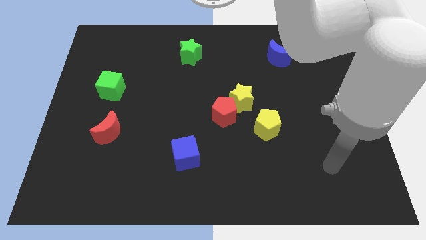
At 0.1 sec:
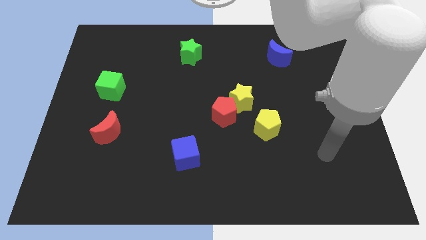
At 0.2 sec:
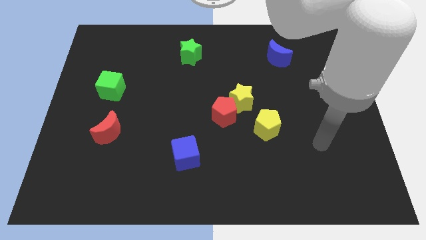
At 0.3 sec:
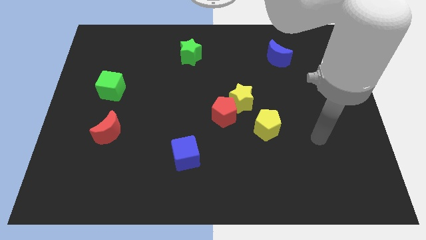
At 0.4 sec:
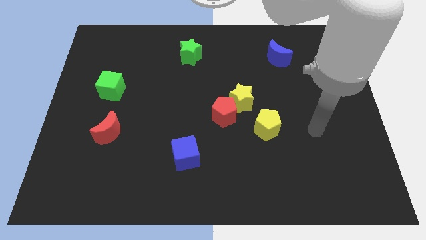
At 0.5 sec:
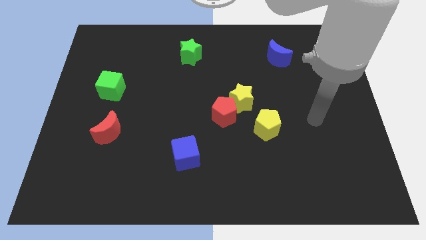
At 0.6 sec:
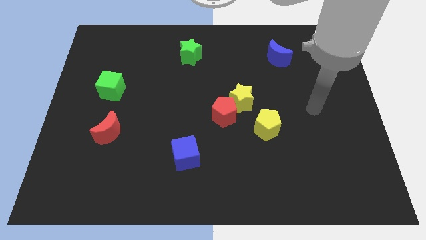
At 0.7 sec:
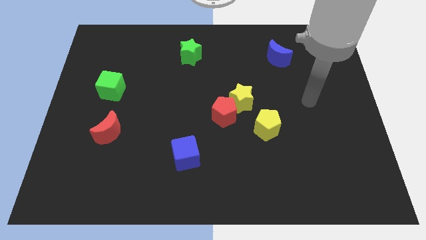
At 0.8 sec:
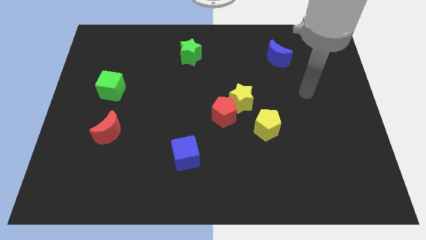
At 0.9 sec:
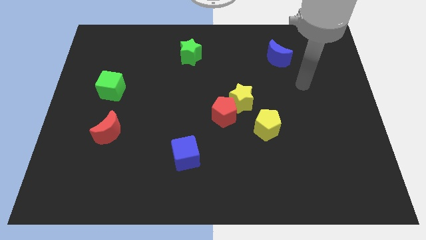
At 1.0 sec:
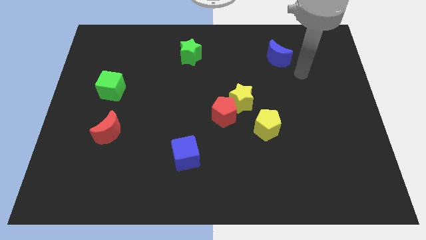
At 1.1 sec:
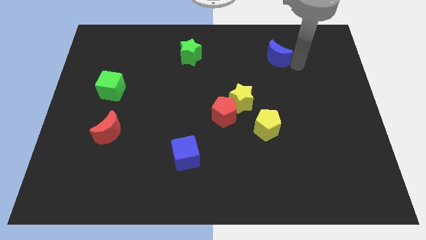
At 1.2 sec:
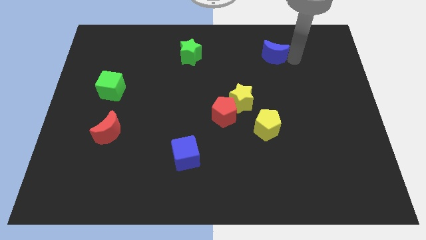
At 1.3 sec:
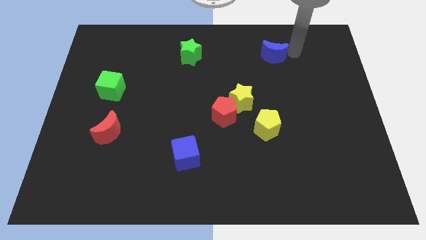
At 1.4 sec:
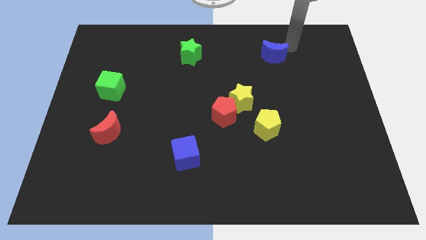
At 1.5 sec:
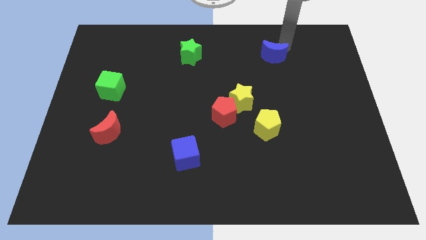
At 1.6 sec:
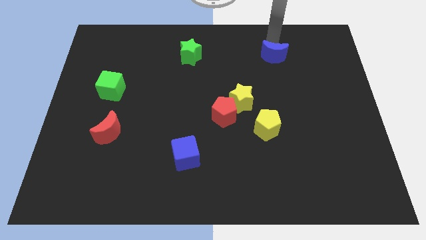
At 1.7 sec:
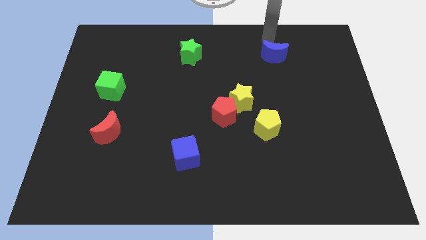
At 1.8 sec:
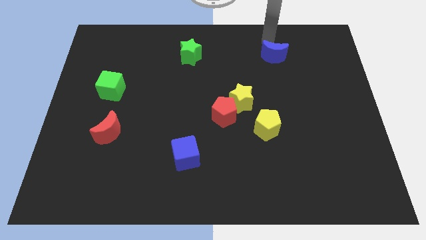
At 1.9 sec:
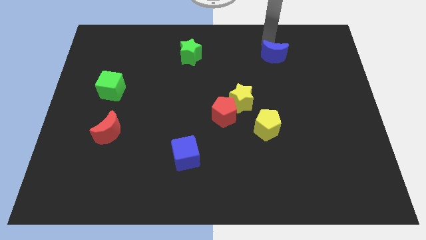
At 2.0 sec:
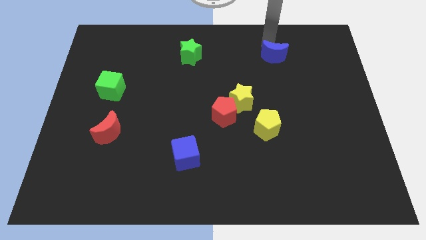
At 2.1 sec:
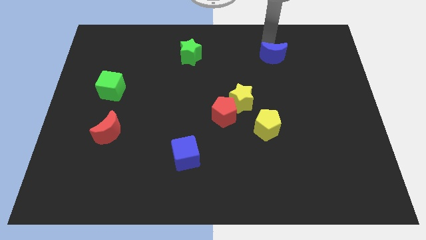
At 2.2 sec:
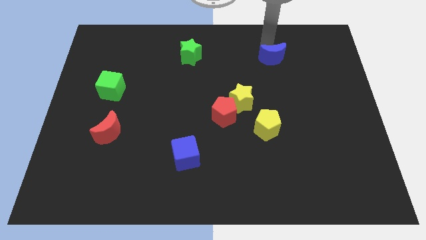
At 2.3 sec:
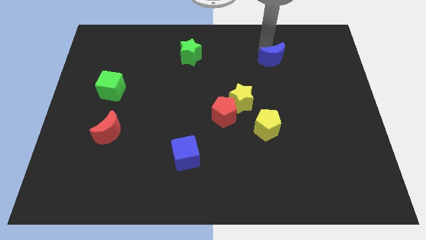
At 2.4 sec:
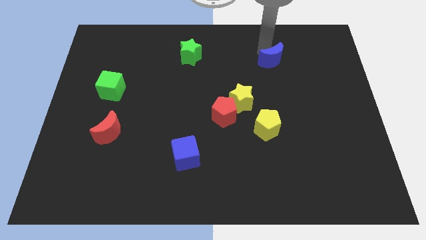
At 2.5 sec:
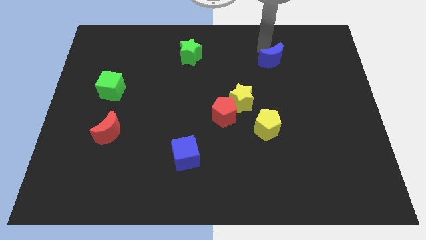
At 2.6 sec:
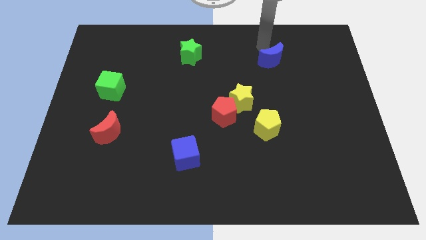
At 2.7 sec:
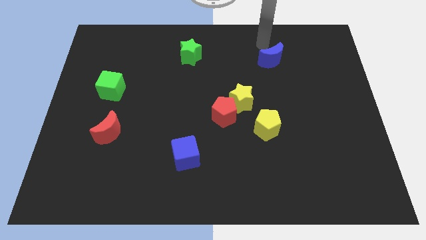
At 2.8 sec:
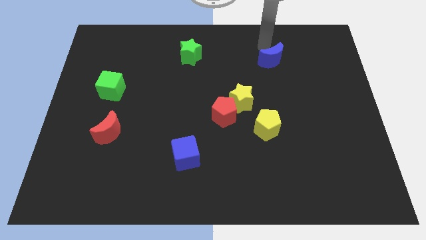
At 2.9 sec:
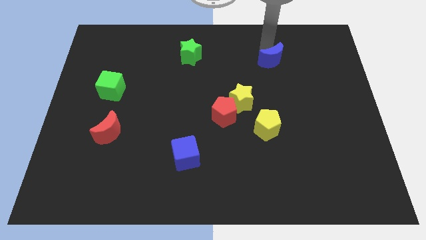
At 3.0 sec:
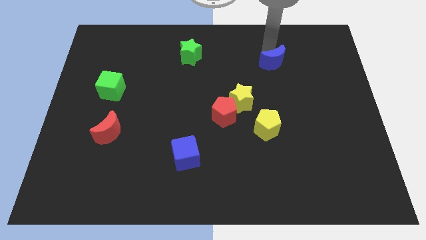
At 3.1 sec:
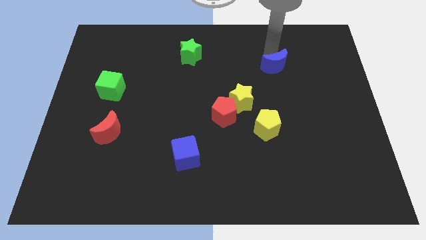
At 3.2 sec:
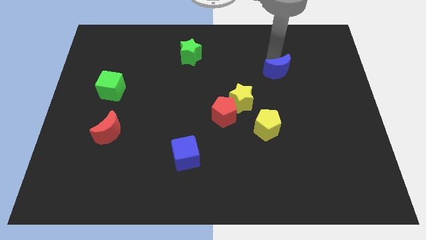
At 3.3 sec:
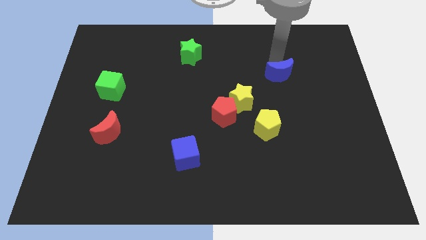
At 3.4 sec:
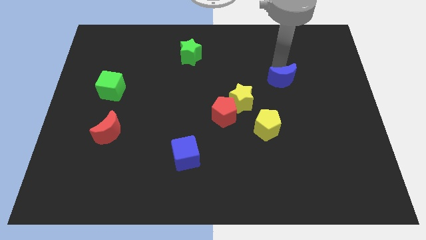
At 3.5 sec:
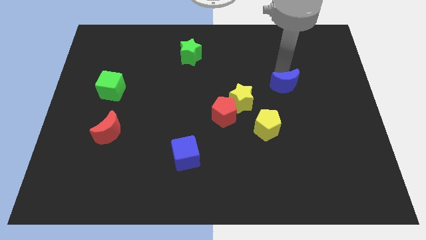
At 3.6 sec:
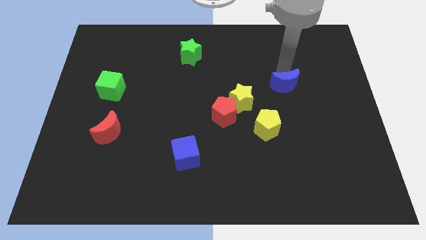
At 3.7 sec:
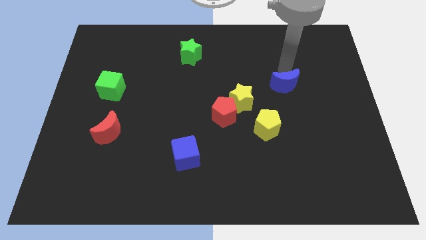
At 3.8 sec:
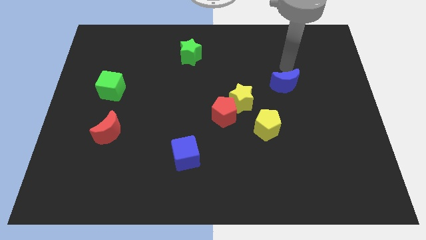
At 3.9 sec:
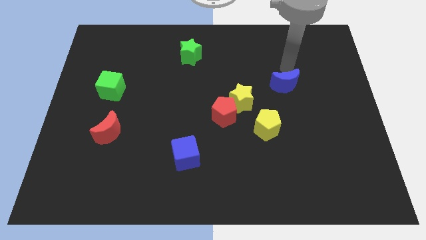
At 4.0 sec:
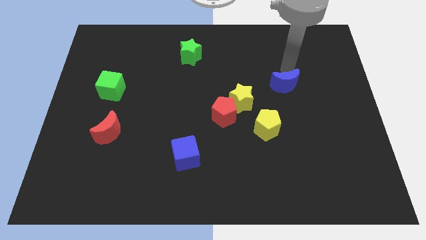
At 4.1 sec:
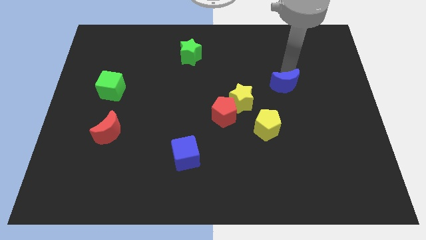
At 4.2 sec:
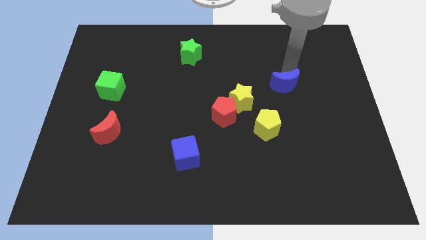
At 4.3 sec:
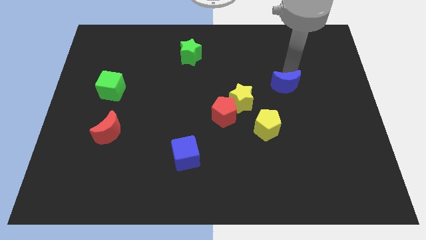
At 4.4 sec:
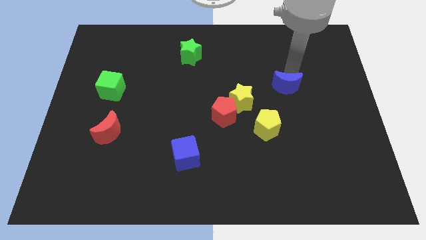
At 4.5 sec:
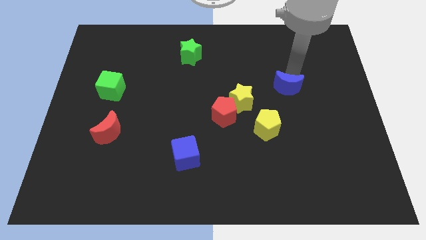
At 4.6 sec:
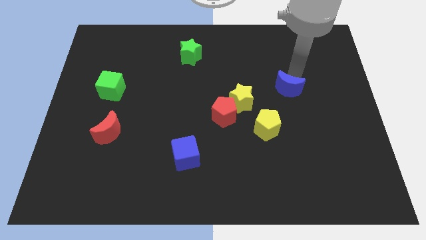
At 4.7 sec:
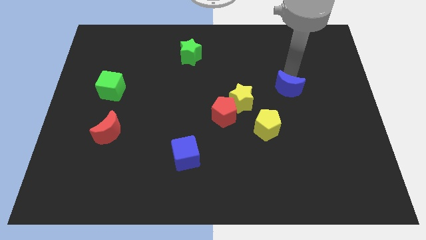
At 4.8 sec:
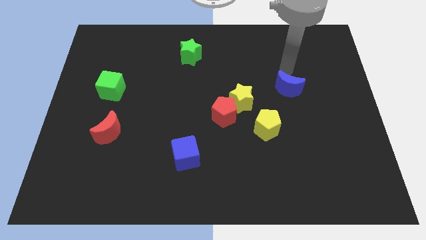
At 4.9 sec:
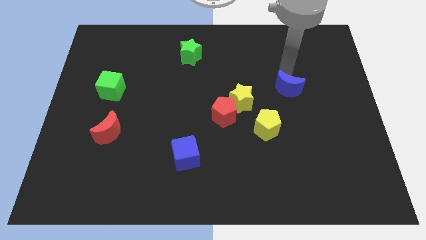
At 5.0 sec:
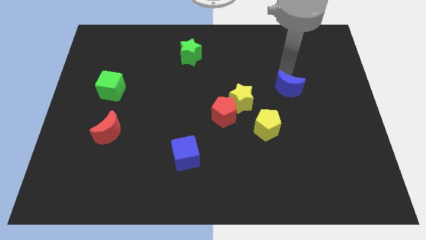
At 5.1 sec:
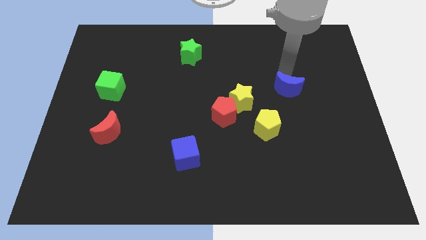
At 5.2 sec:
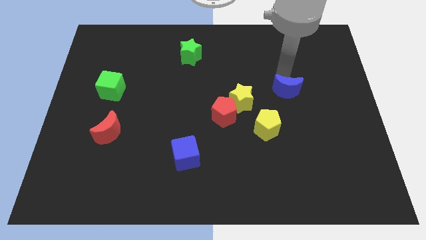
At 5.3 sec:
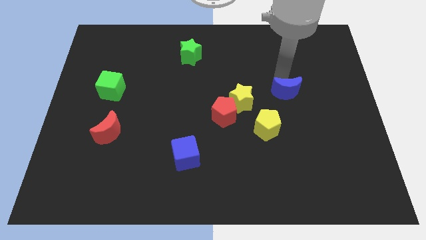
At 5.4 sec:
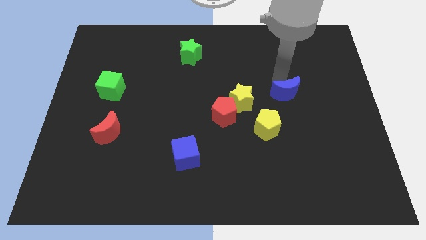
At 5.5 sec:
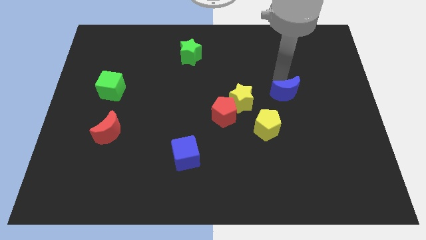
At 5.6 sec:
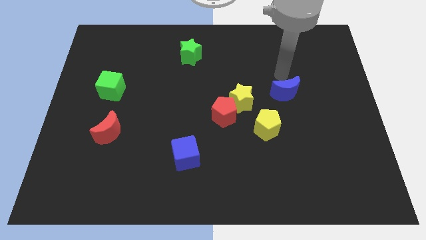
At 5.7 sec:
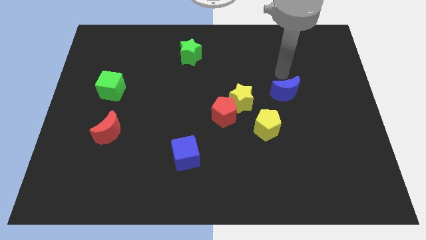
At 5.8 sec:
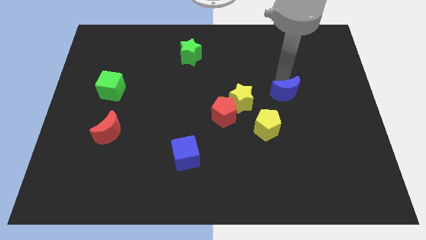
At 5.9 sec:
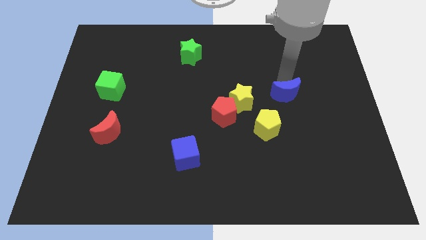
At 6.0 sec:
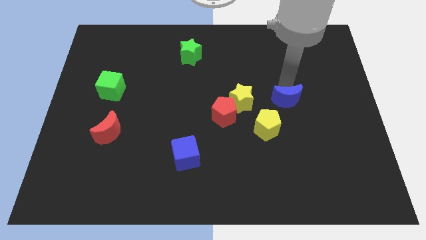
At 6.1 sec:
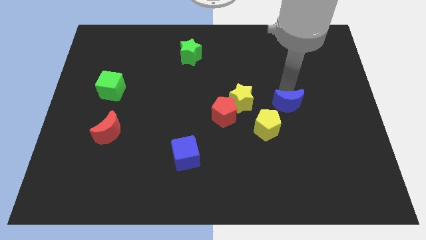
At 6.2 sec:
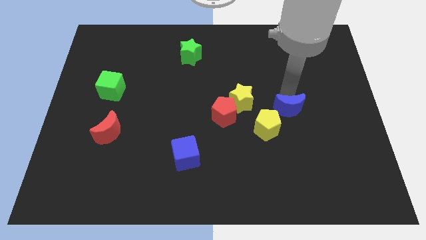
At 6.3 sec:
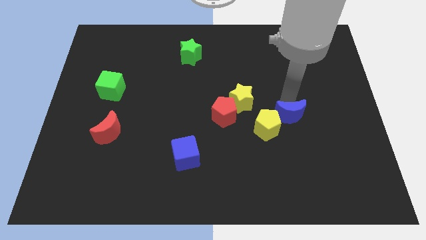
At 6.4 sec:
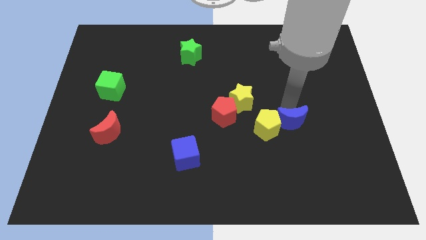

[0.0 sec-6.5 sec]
push the blue moon down

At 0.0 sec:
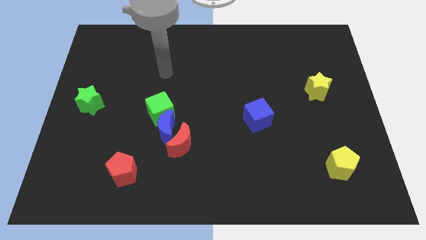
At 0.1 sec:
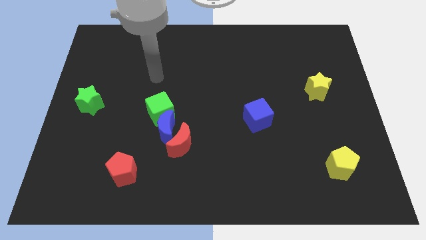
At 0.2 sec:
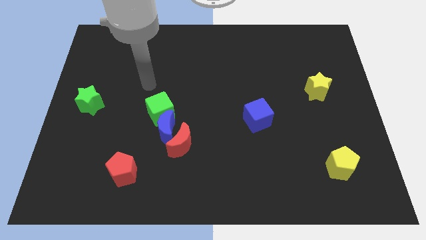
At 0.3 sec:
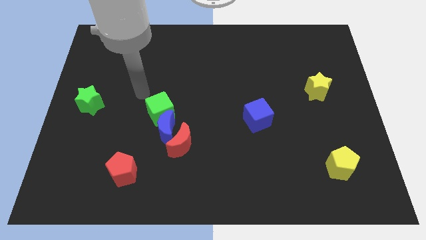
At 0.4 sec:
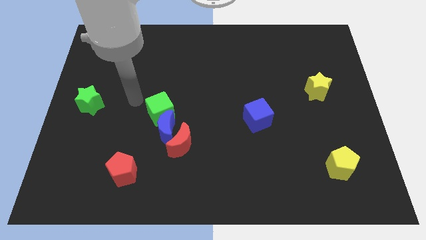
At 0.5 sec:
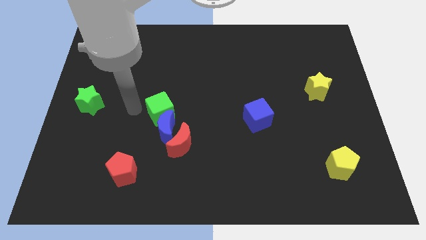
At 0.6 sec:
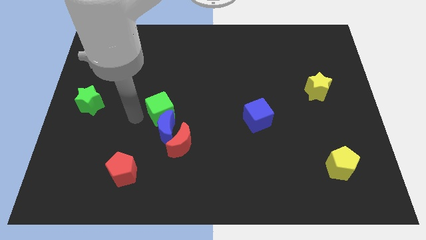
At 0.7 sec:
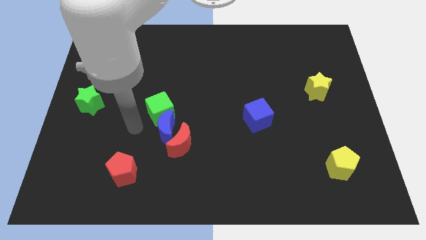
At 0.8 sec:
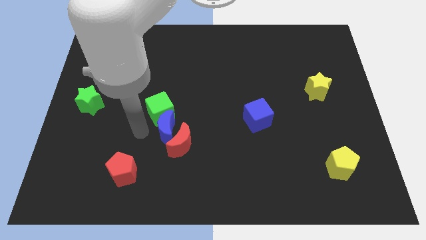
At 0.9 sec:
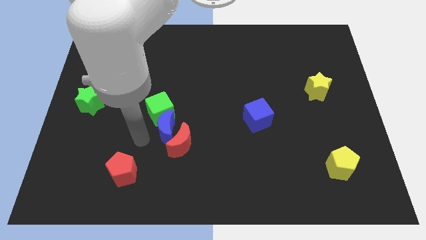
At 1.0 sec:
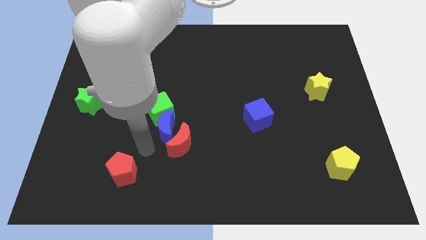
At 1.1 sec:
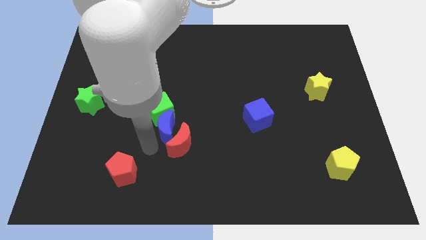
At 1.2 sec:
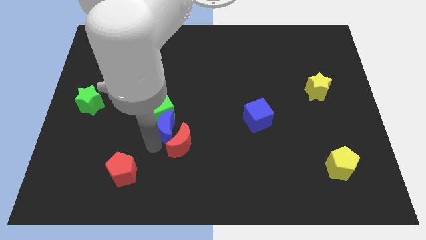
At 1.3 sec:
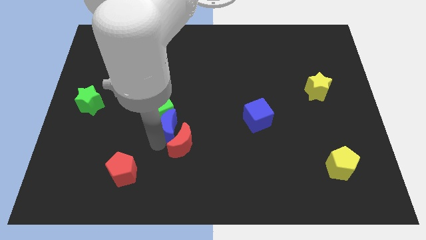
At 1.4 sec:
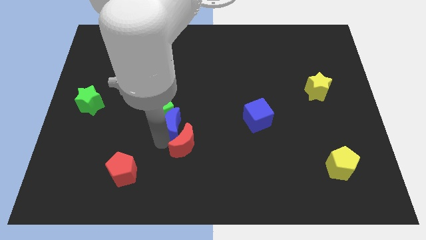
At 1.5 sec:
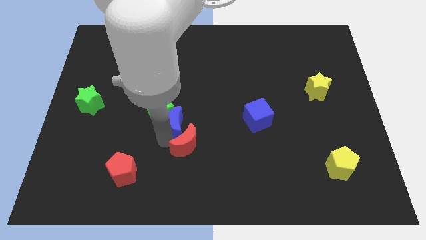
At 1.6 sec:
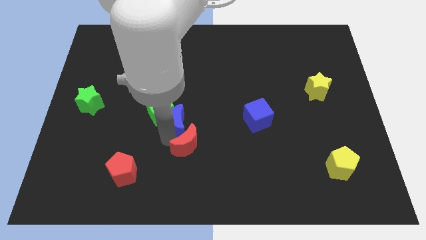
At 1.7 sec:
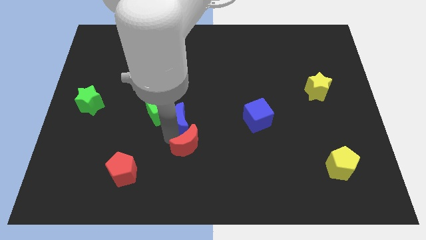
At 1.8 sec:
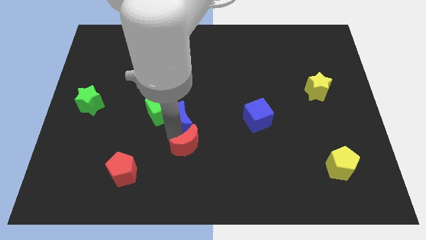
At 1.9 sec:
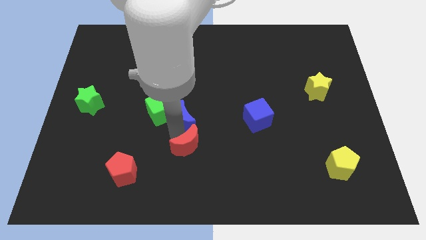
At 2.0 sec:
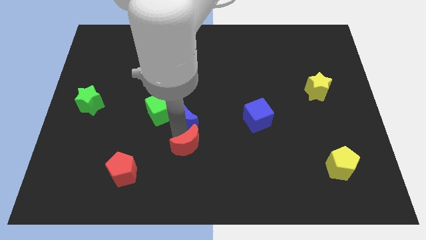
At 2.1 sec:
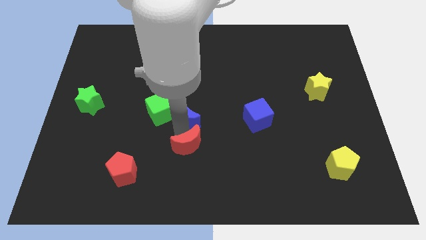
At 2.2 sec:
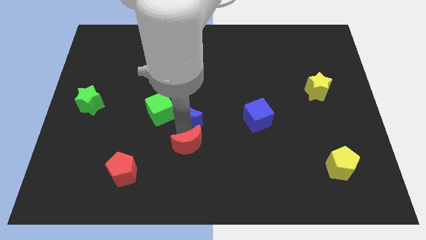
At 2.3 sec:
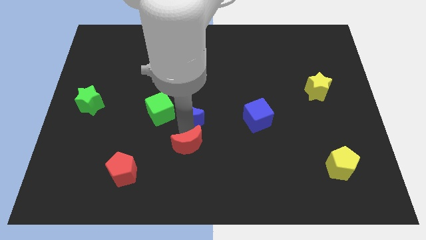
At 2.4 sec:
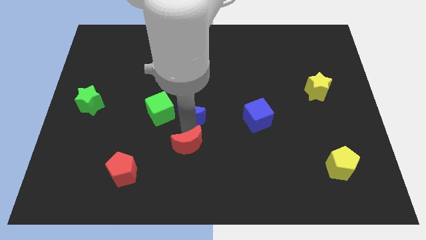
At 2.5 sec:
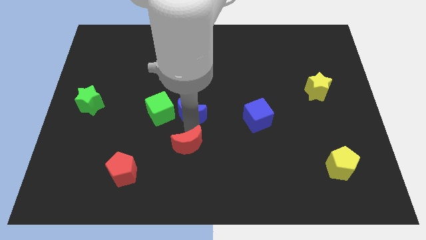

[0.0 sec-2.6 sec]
push the blue moon diagonally upwards and right a bit
